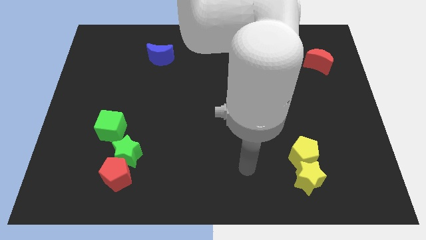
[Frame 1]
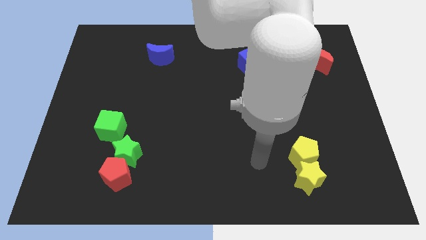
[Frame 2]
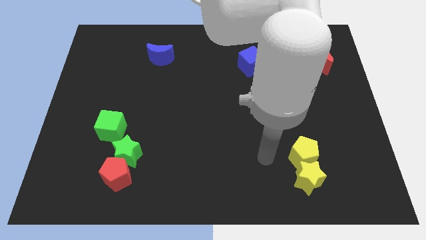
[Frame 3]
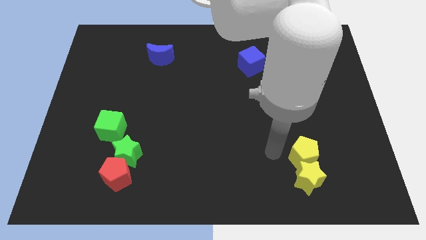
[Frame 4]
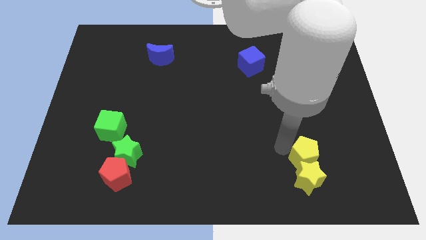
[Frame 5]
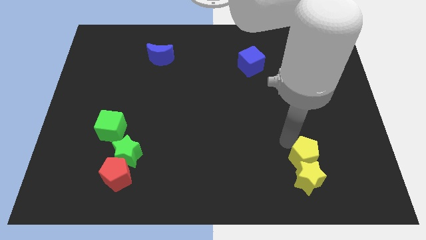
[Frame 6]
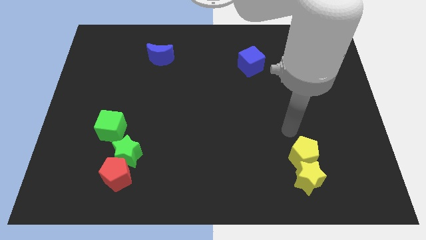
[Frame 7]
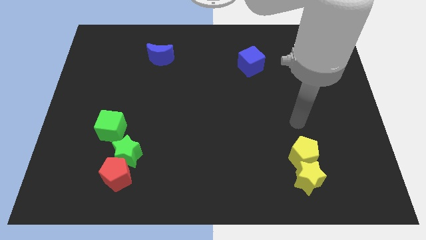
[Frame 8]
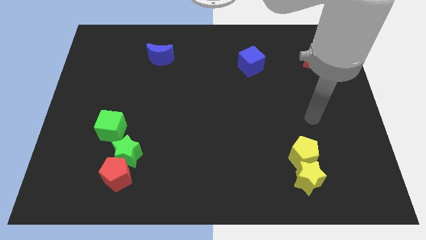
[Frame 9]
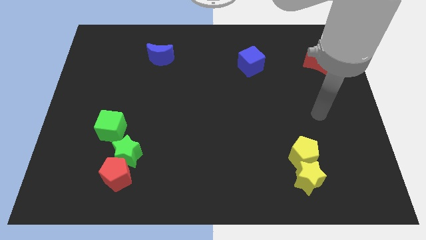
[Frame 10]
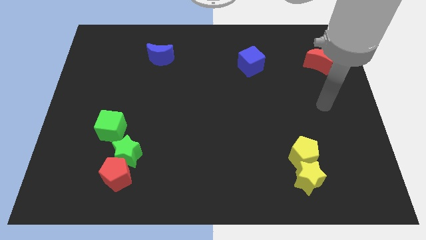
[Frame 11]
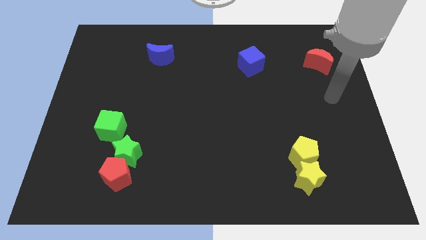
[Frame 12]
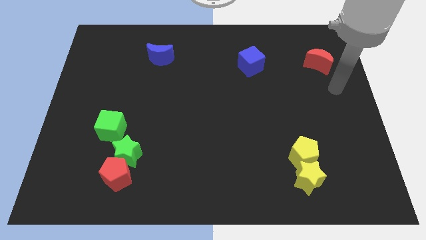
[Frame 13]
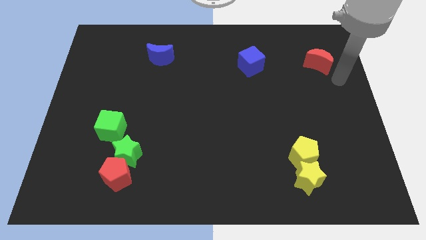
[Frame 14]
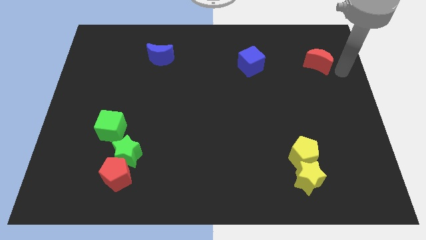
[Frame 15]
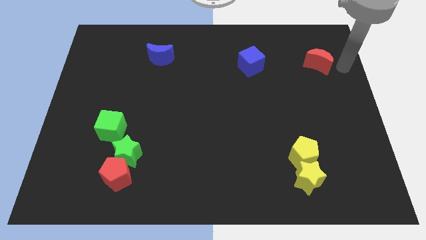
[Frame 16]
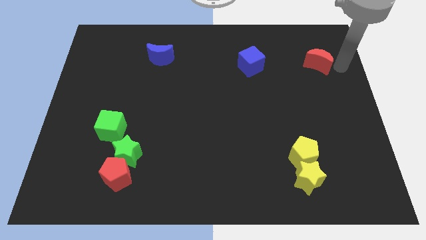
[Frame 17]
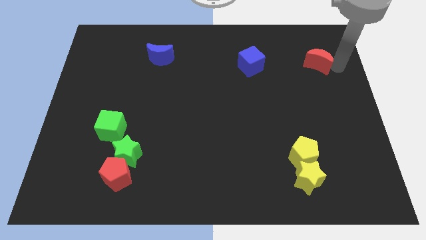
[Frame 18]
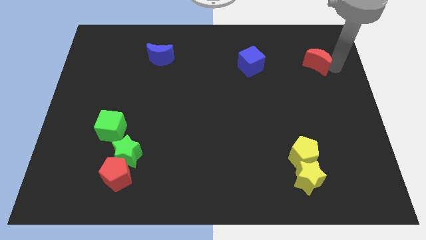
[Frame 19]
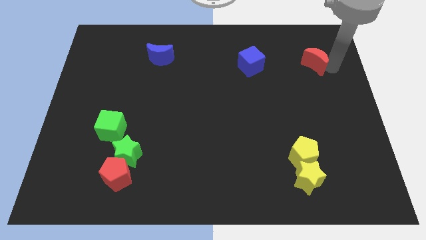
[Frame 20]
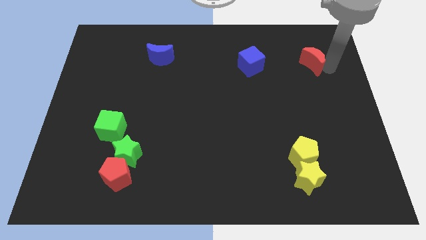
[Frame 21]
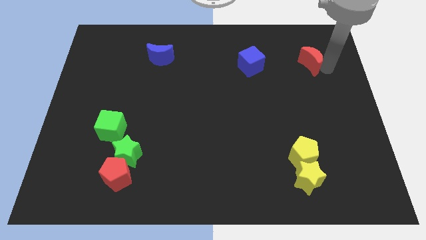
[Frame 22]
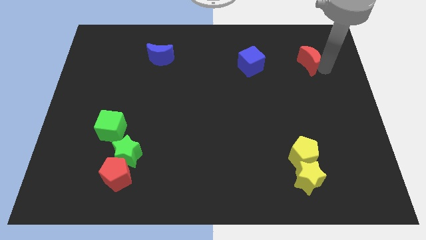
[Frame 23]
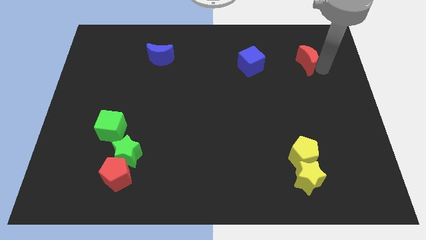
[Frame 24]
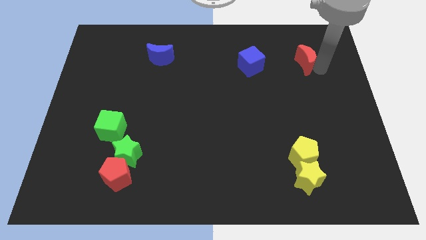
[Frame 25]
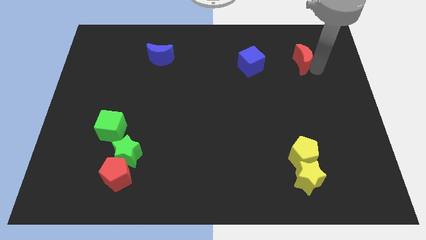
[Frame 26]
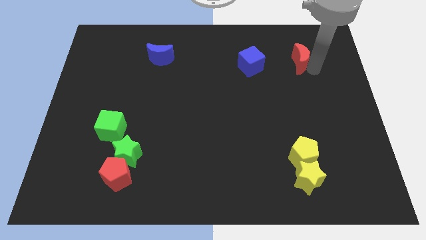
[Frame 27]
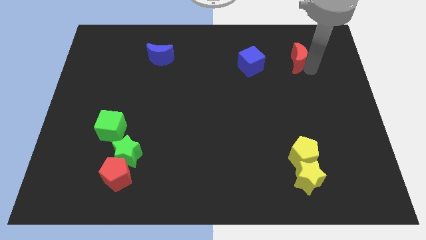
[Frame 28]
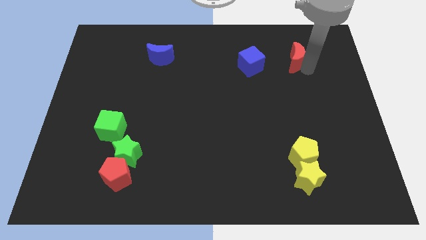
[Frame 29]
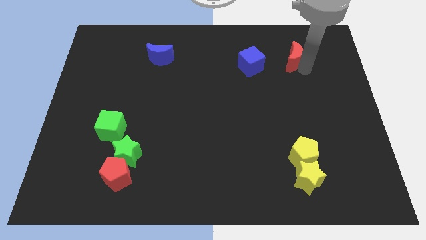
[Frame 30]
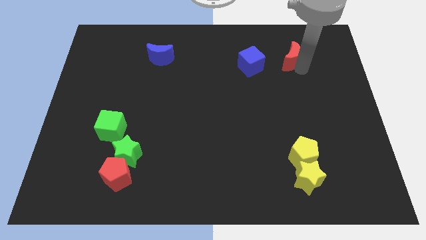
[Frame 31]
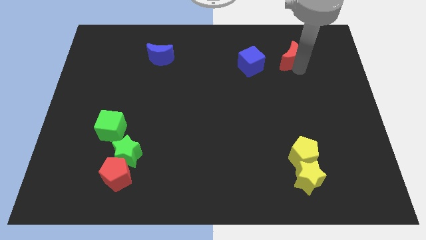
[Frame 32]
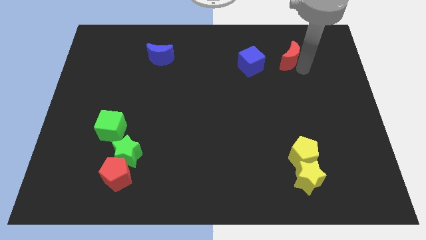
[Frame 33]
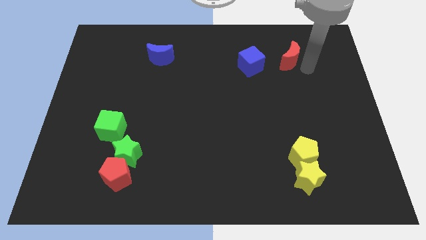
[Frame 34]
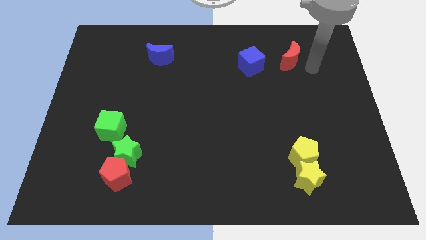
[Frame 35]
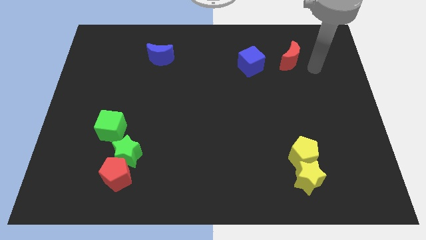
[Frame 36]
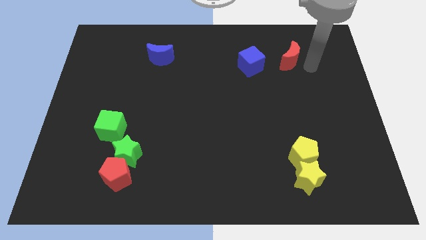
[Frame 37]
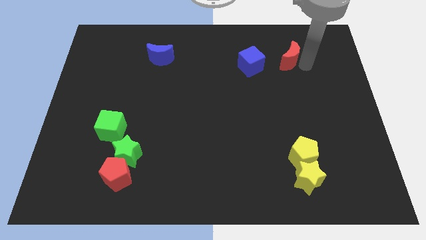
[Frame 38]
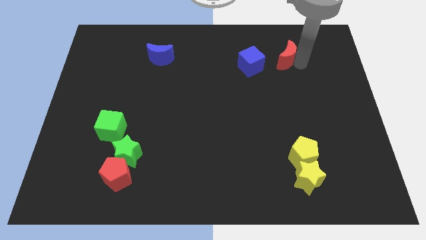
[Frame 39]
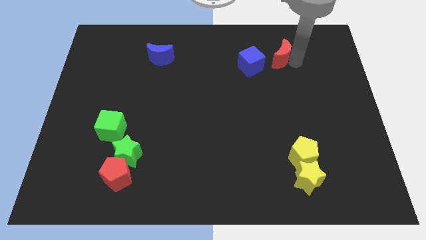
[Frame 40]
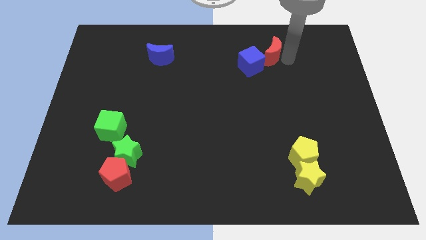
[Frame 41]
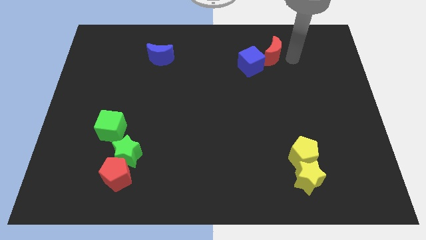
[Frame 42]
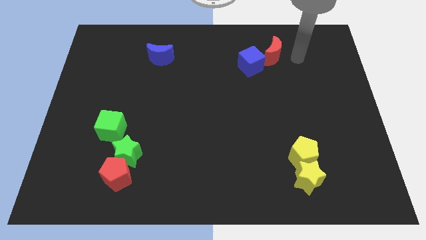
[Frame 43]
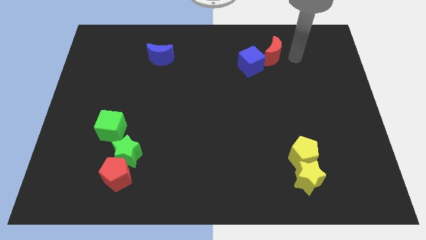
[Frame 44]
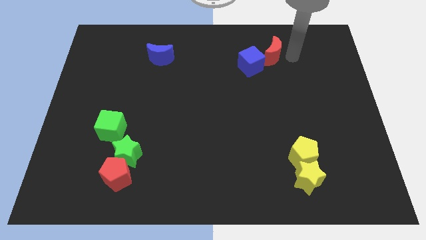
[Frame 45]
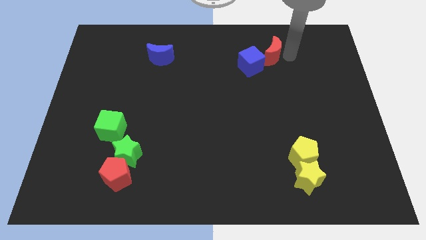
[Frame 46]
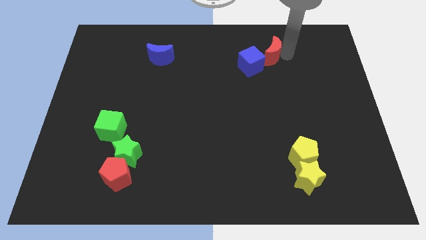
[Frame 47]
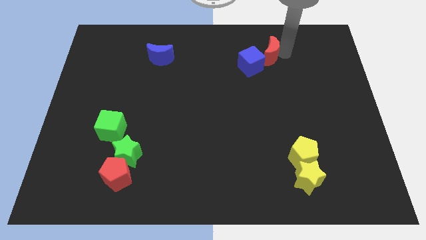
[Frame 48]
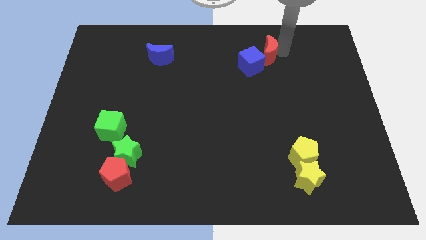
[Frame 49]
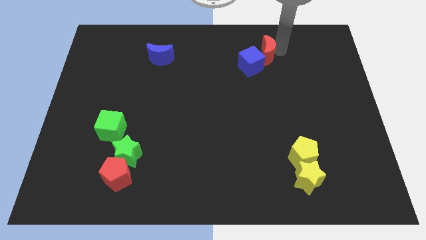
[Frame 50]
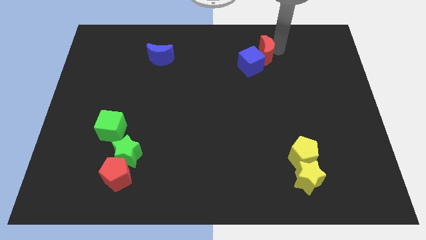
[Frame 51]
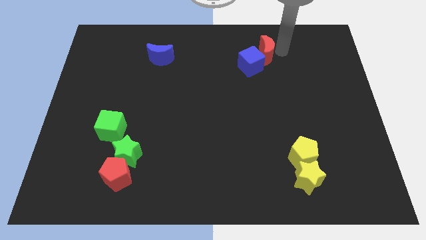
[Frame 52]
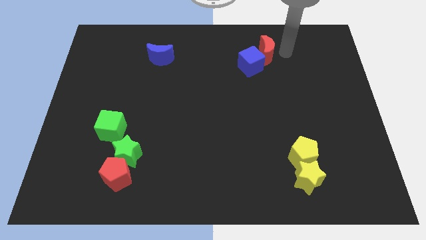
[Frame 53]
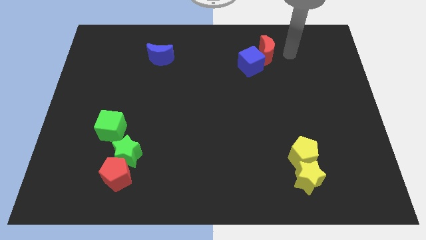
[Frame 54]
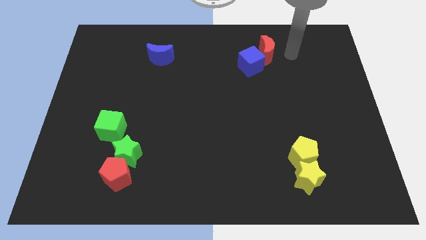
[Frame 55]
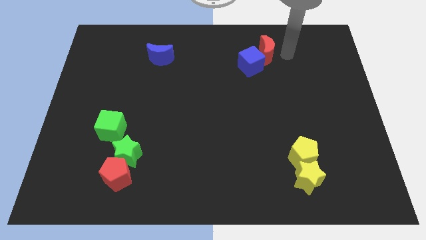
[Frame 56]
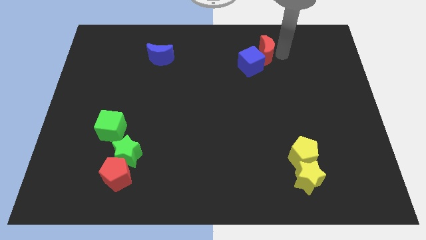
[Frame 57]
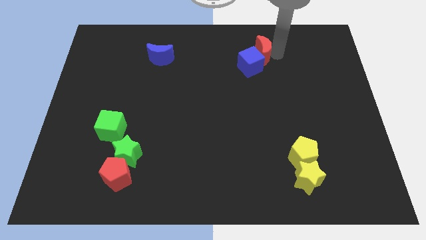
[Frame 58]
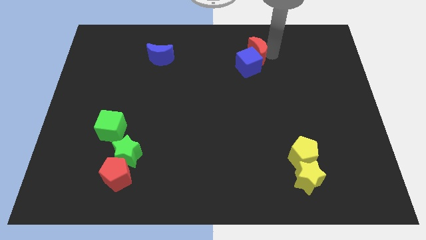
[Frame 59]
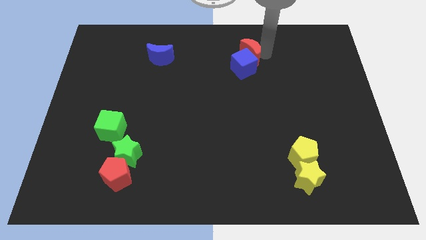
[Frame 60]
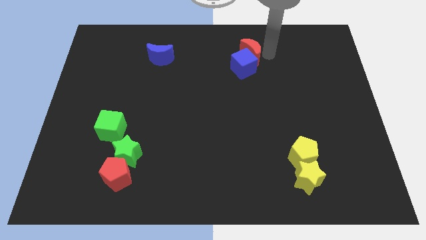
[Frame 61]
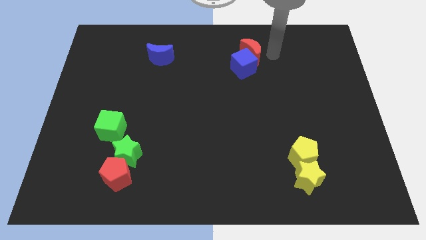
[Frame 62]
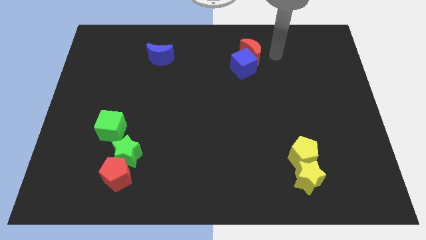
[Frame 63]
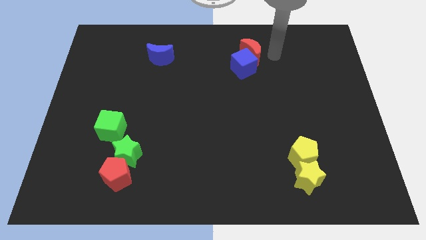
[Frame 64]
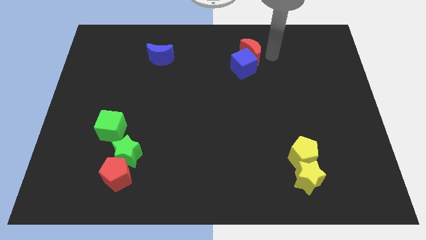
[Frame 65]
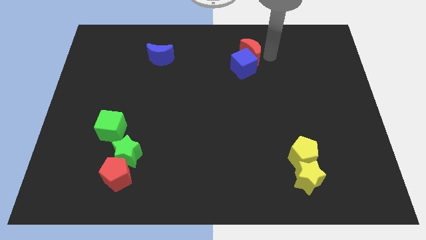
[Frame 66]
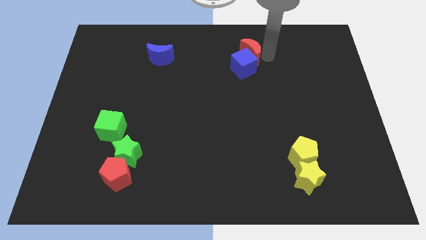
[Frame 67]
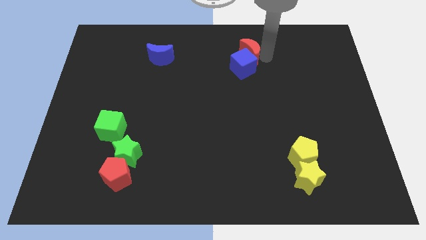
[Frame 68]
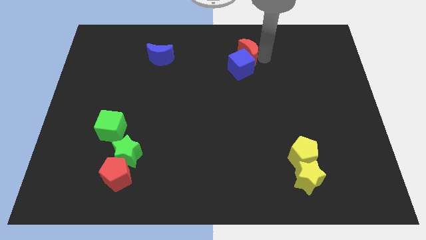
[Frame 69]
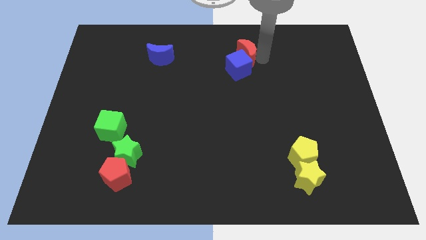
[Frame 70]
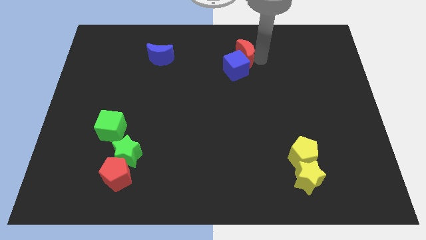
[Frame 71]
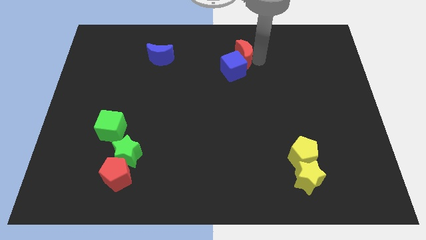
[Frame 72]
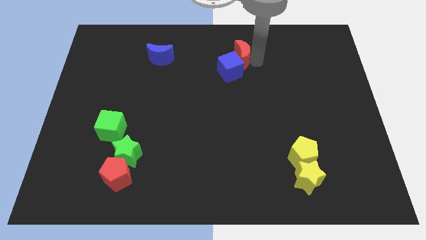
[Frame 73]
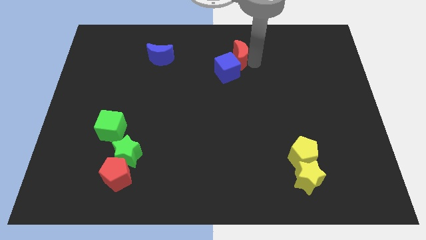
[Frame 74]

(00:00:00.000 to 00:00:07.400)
push the red moon left

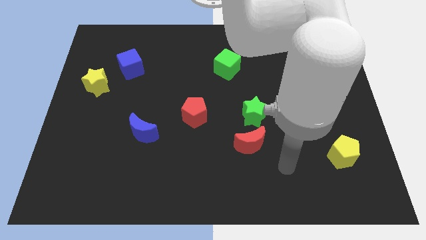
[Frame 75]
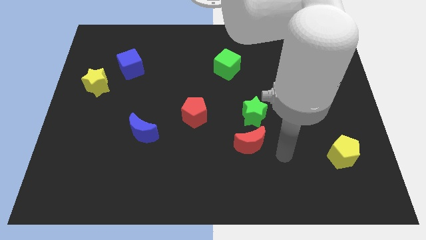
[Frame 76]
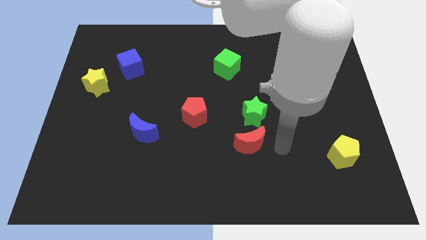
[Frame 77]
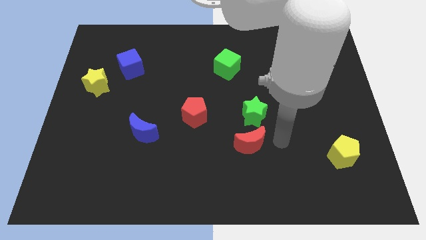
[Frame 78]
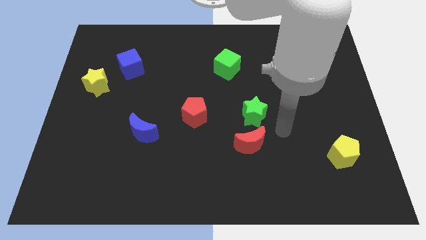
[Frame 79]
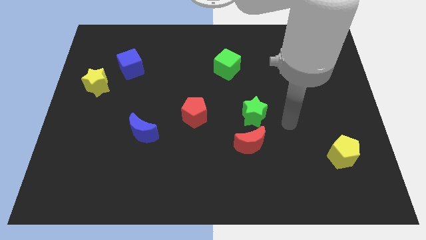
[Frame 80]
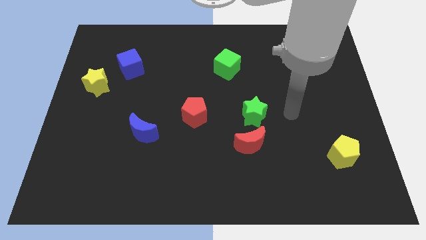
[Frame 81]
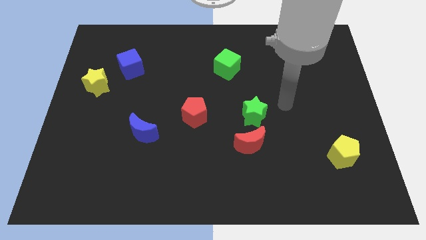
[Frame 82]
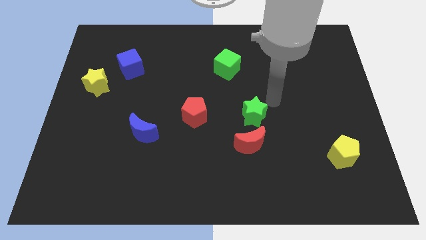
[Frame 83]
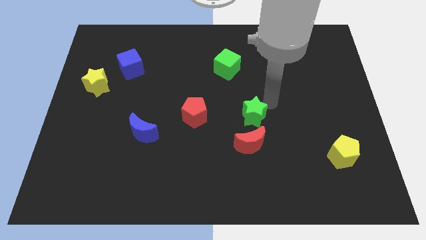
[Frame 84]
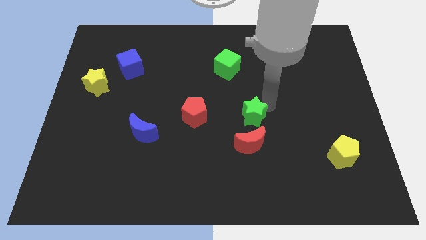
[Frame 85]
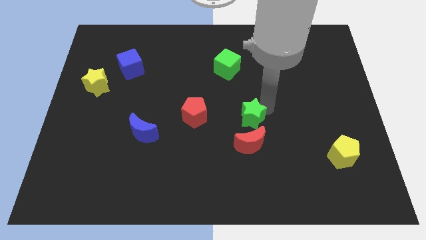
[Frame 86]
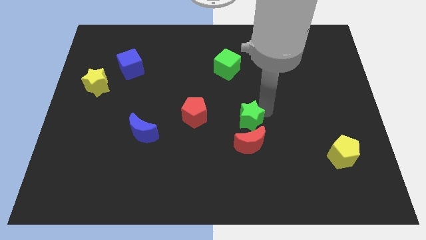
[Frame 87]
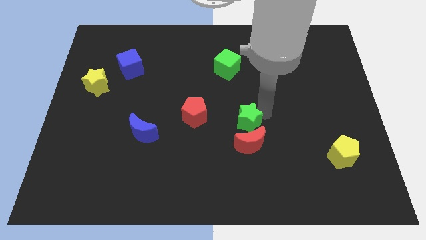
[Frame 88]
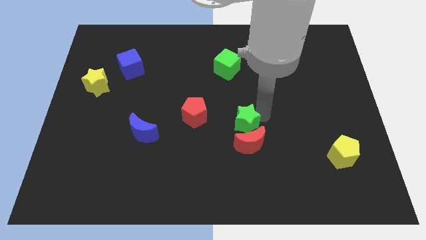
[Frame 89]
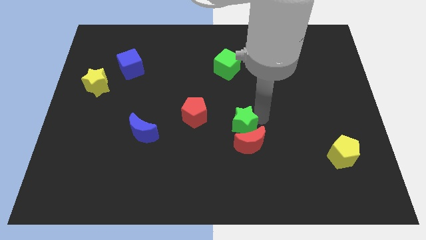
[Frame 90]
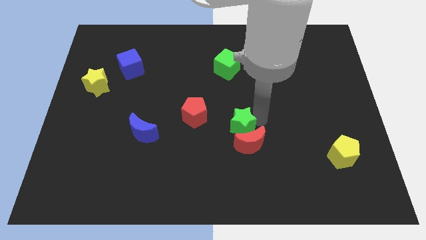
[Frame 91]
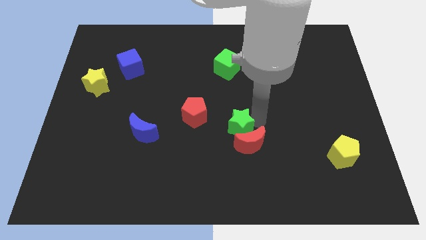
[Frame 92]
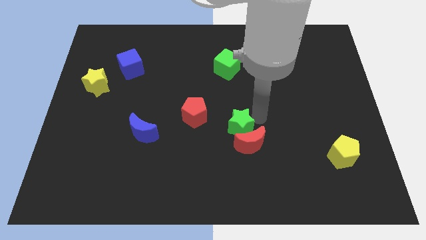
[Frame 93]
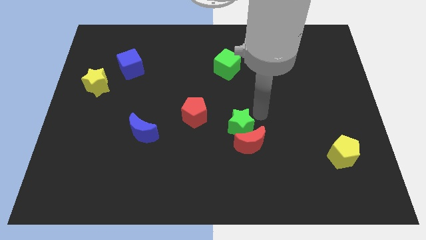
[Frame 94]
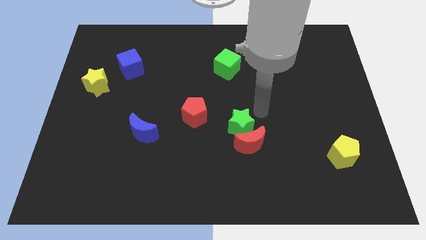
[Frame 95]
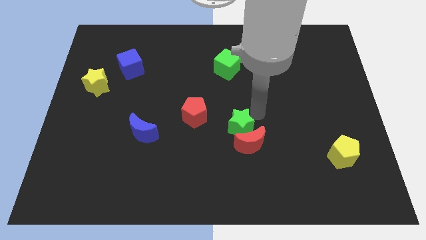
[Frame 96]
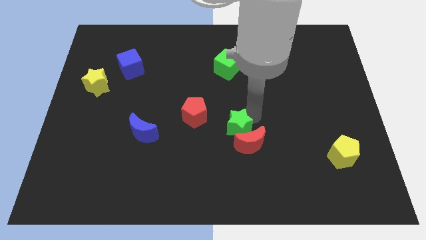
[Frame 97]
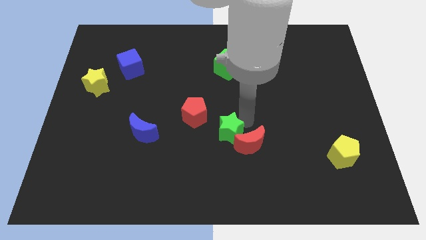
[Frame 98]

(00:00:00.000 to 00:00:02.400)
push the green star down and left a little bit
